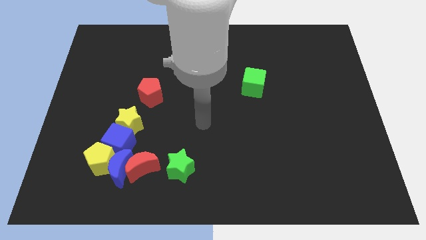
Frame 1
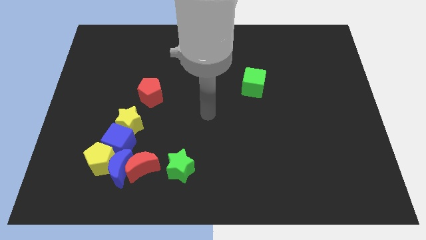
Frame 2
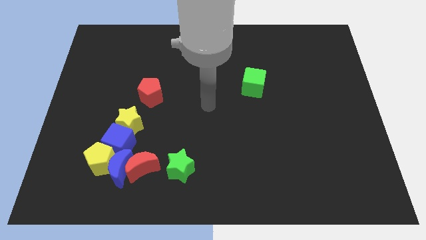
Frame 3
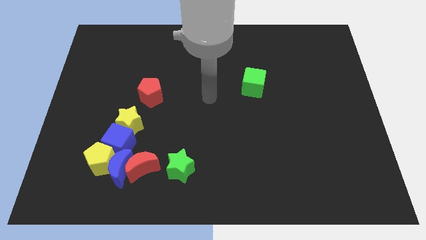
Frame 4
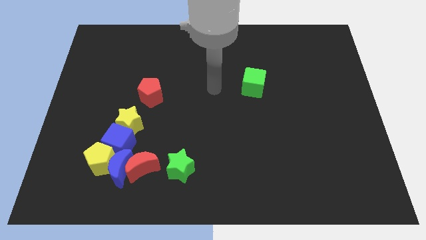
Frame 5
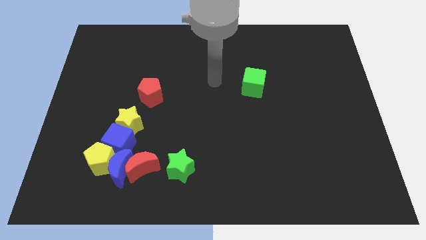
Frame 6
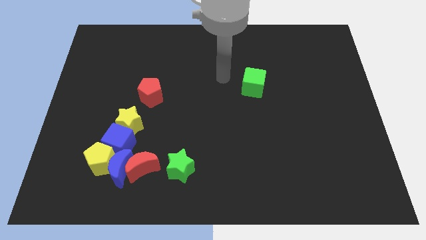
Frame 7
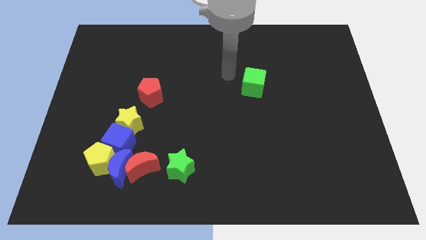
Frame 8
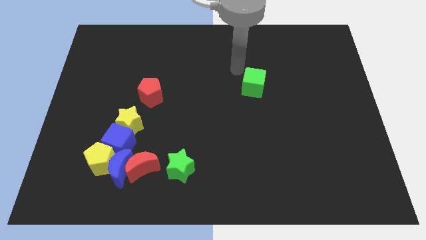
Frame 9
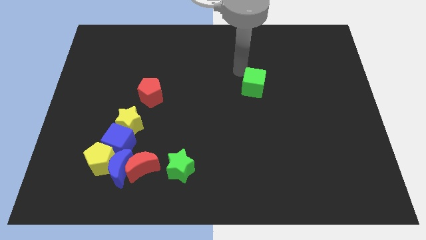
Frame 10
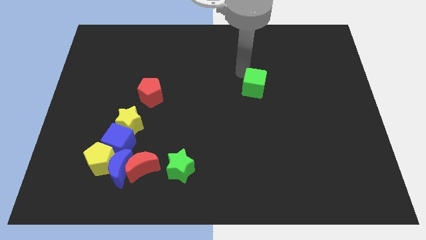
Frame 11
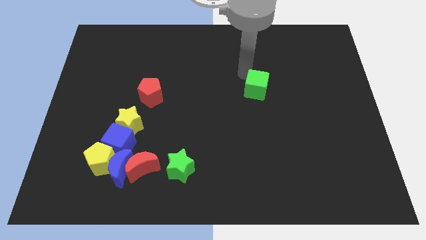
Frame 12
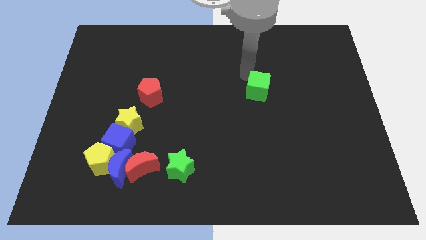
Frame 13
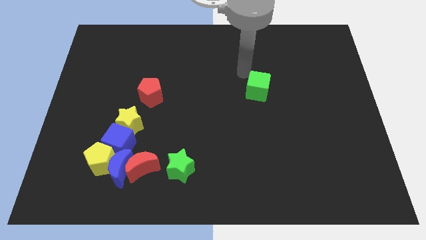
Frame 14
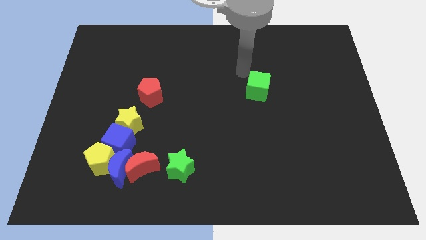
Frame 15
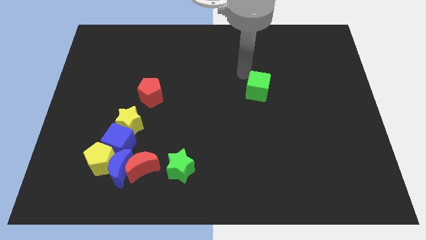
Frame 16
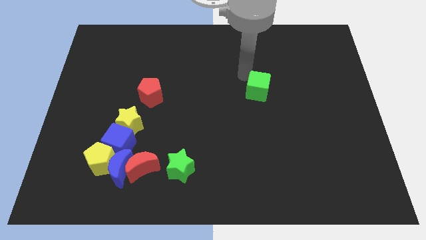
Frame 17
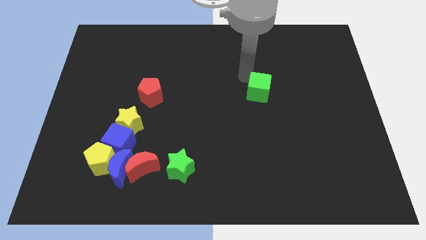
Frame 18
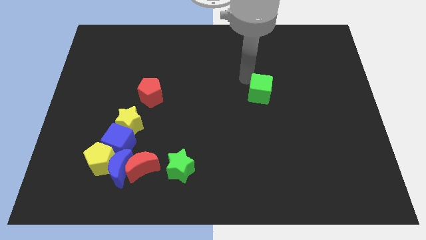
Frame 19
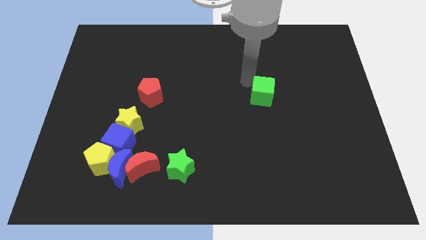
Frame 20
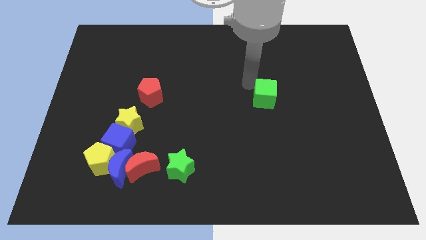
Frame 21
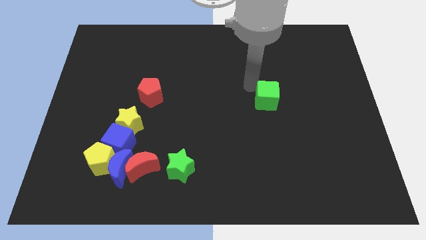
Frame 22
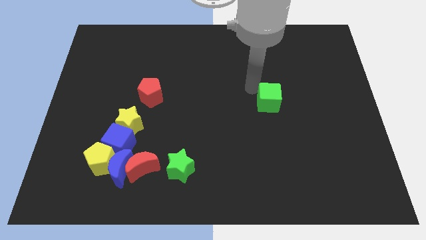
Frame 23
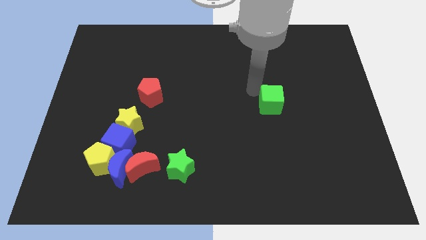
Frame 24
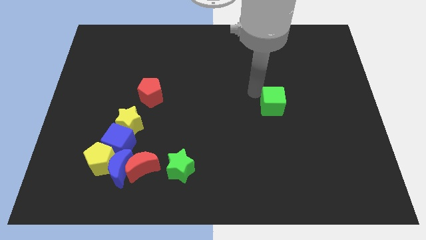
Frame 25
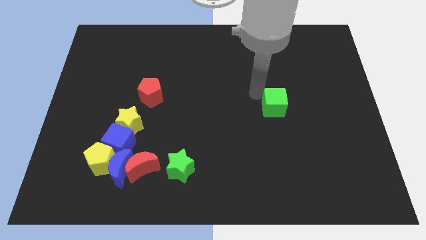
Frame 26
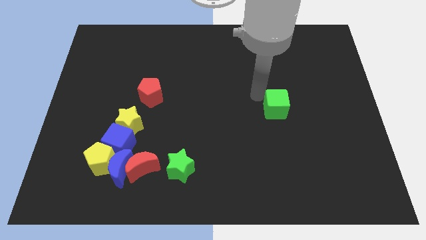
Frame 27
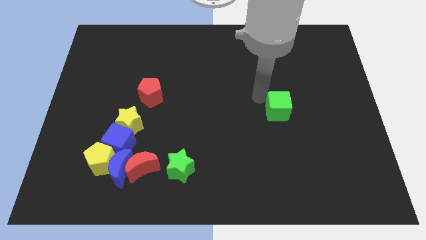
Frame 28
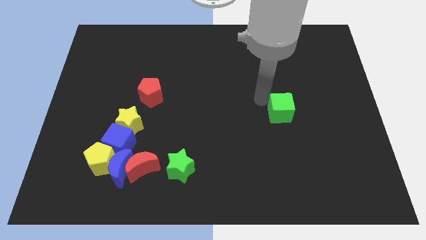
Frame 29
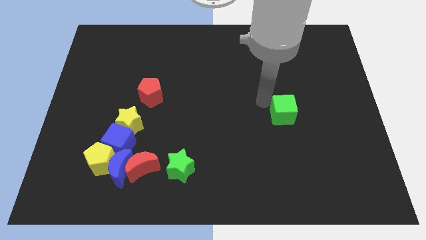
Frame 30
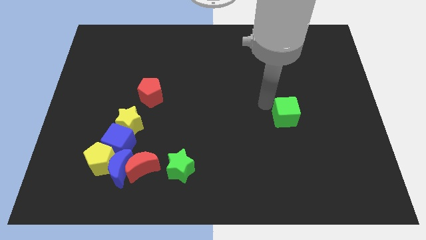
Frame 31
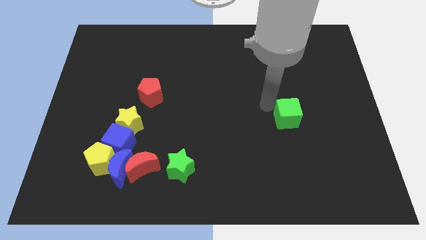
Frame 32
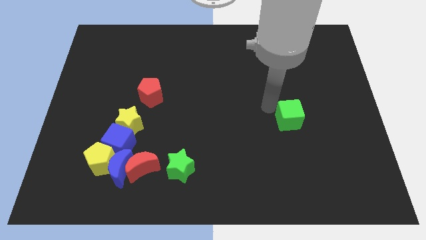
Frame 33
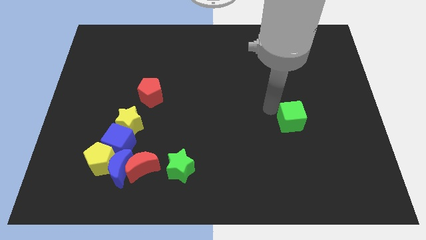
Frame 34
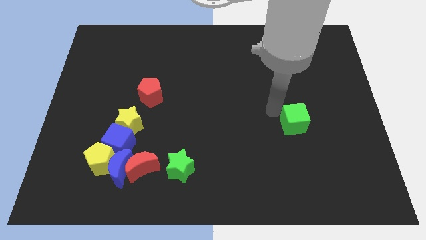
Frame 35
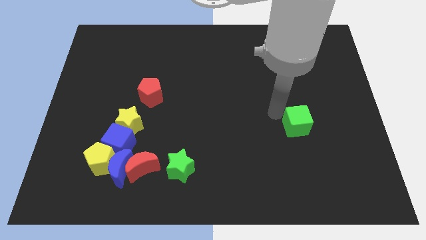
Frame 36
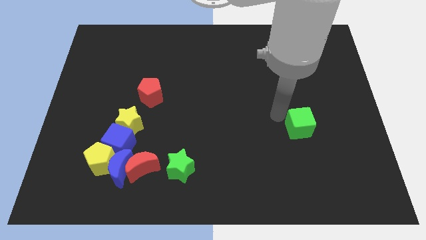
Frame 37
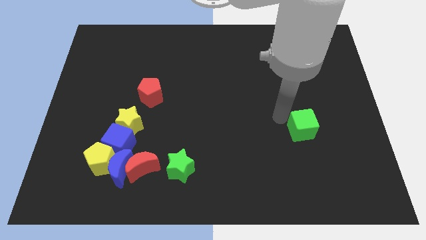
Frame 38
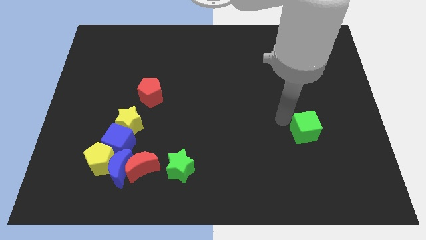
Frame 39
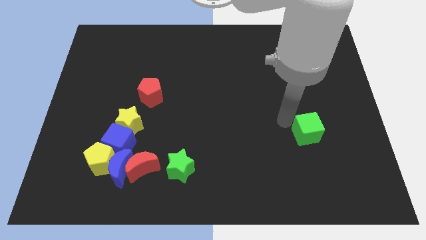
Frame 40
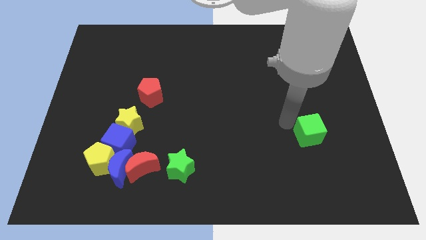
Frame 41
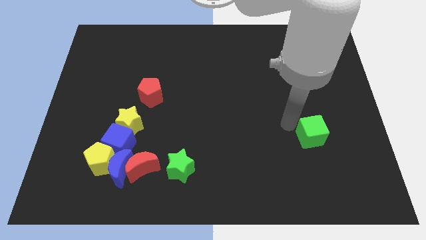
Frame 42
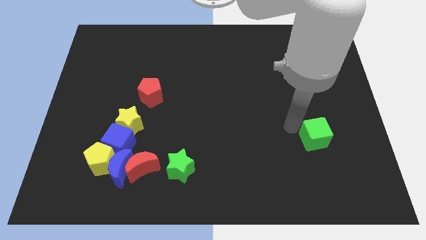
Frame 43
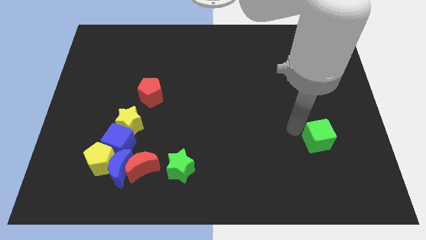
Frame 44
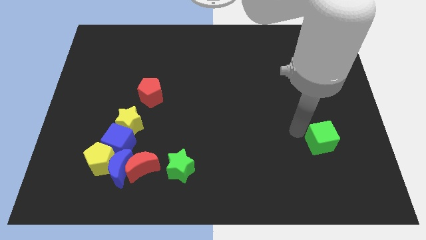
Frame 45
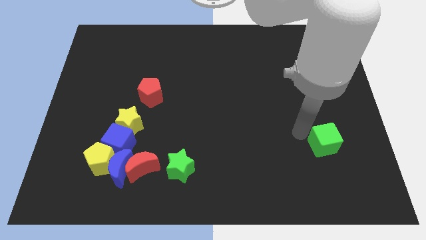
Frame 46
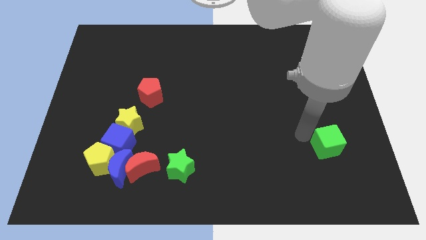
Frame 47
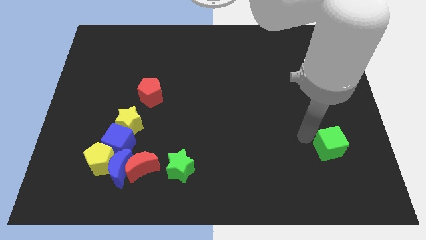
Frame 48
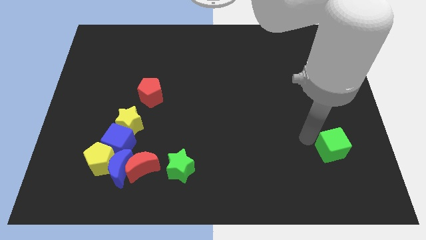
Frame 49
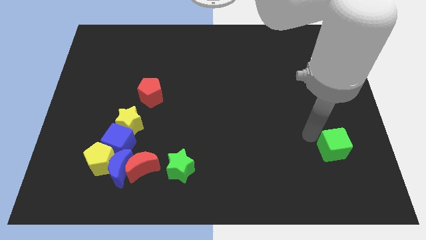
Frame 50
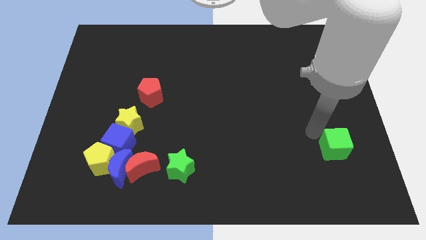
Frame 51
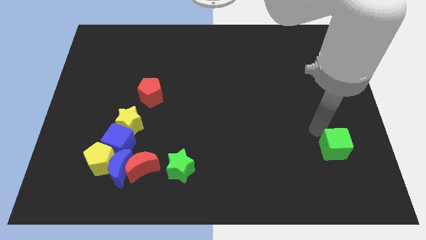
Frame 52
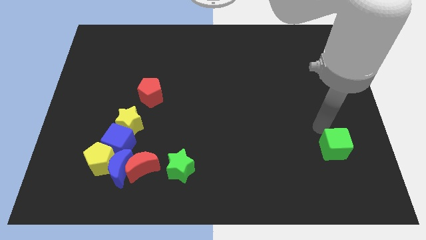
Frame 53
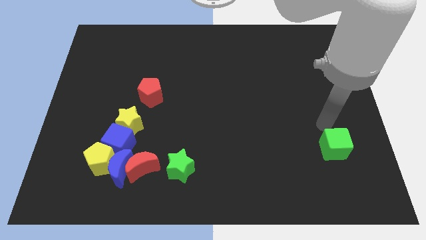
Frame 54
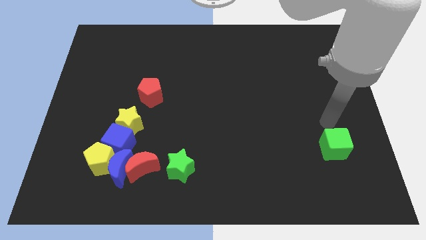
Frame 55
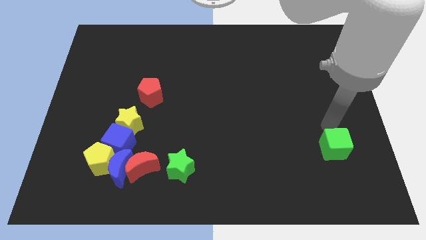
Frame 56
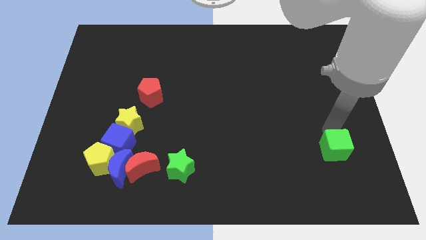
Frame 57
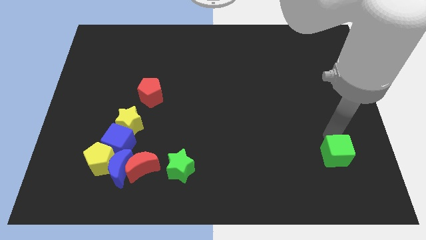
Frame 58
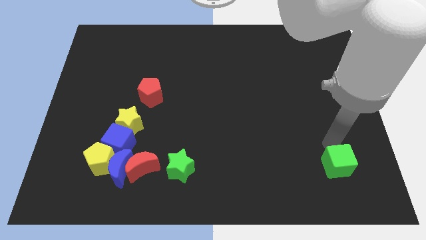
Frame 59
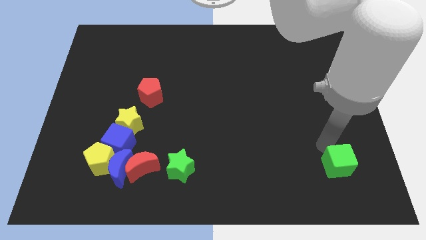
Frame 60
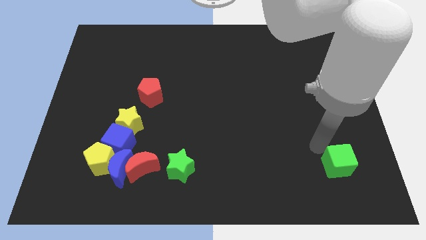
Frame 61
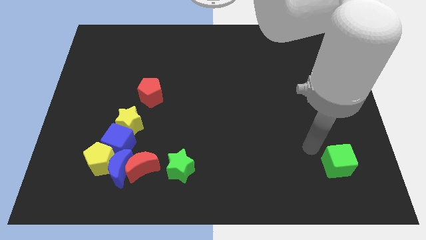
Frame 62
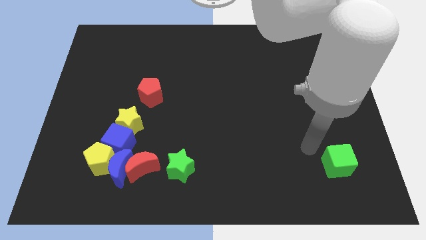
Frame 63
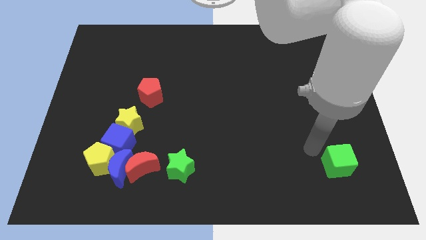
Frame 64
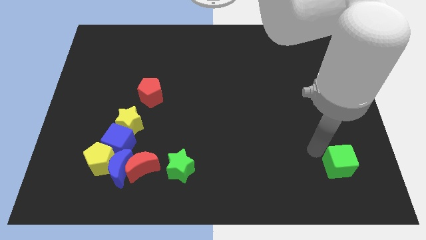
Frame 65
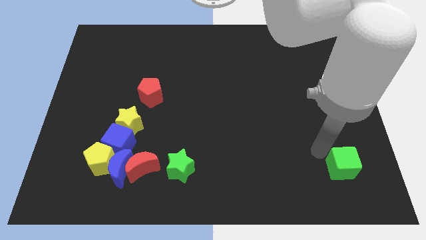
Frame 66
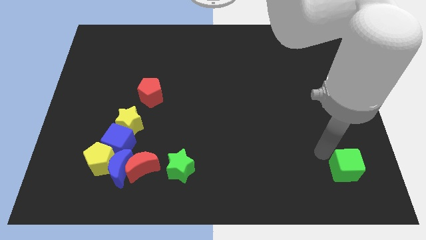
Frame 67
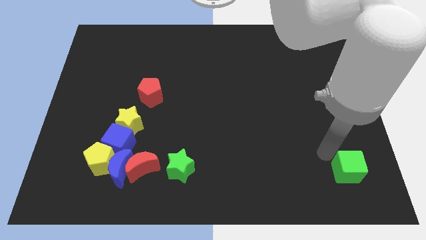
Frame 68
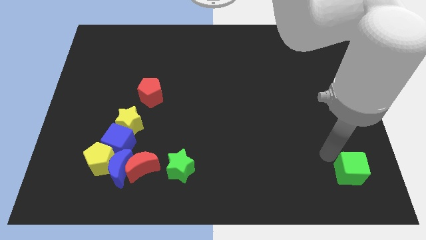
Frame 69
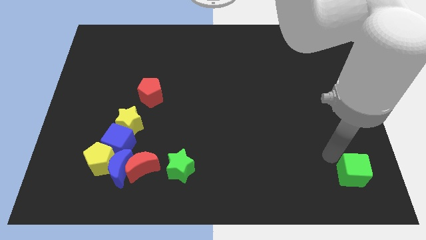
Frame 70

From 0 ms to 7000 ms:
push the green cube to the bottom right
